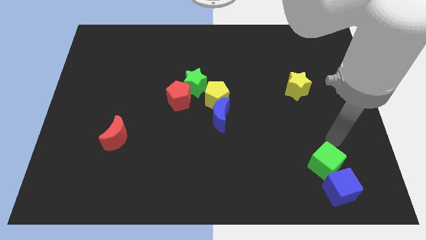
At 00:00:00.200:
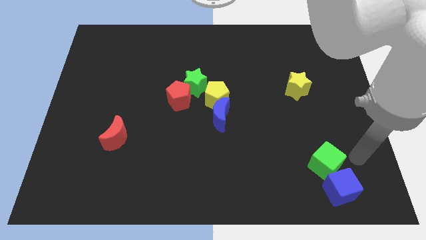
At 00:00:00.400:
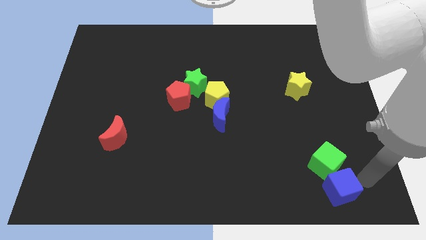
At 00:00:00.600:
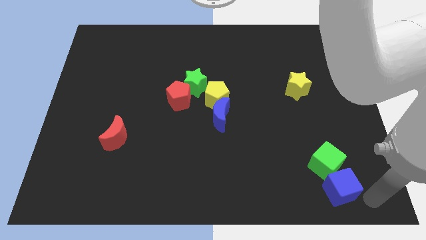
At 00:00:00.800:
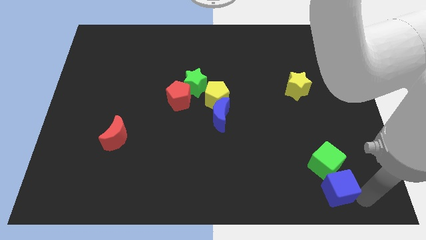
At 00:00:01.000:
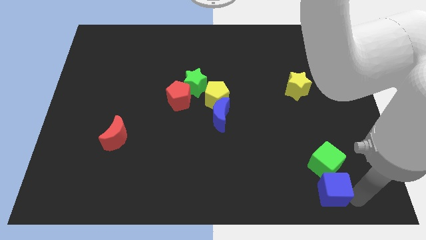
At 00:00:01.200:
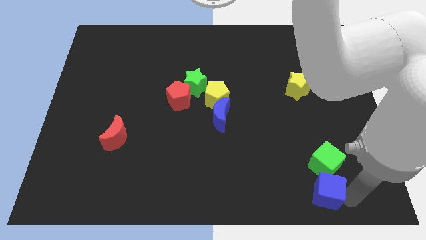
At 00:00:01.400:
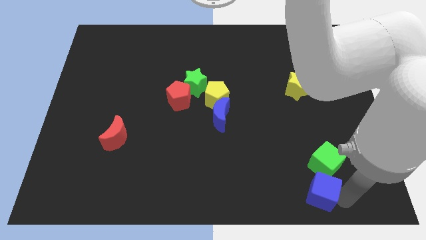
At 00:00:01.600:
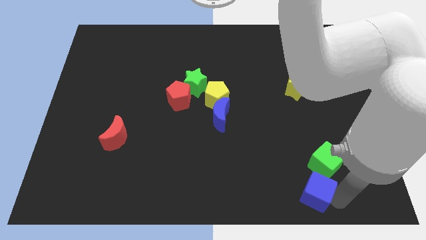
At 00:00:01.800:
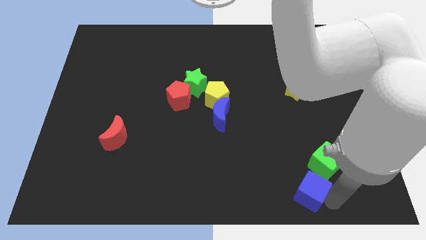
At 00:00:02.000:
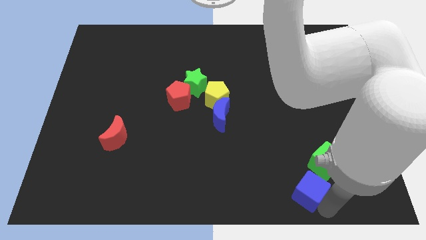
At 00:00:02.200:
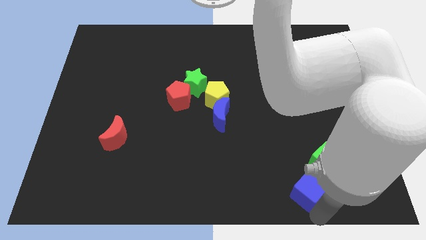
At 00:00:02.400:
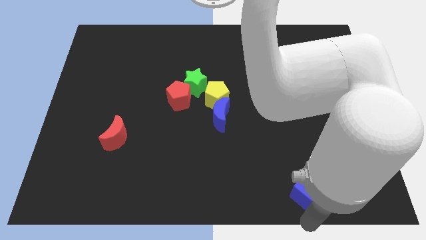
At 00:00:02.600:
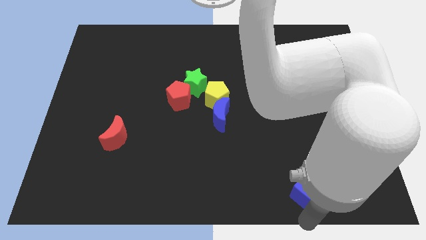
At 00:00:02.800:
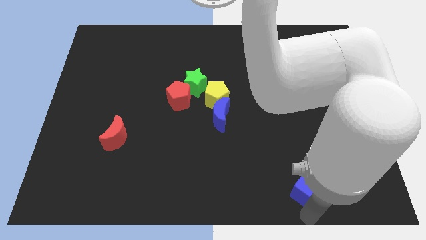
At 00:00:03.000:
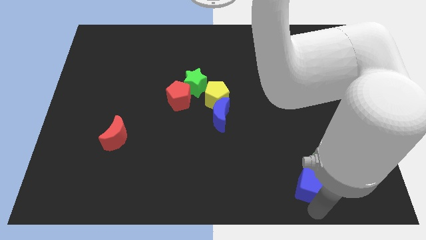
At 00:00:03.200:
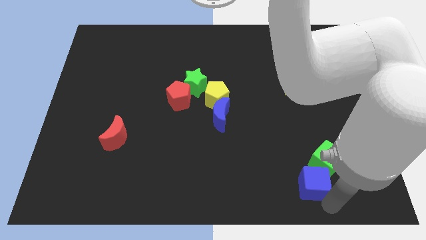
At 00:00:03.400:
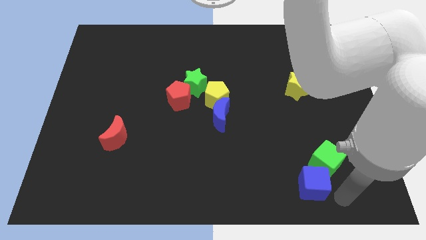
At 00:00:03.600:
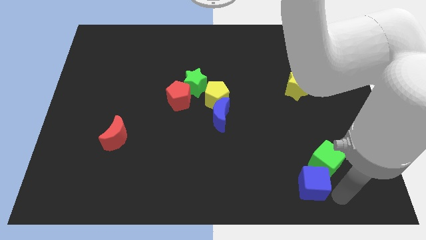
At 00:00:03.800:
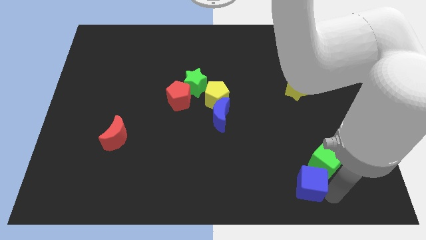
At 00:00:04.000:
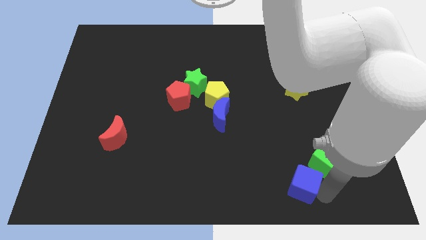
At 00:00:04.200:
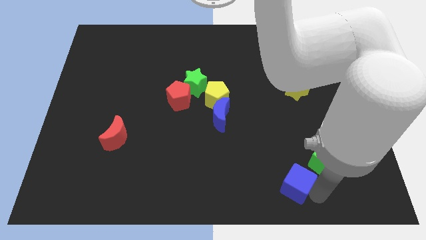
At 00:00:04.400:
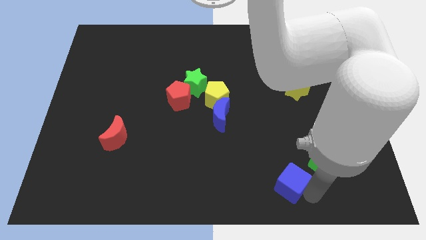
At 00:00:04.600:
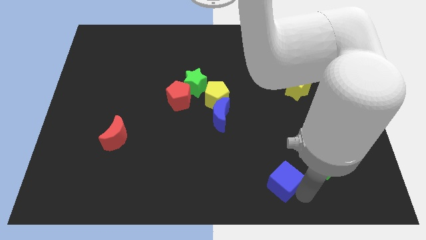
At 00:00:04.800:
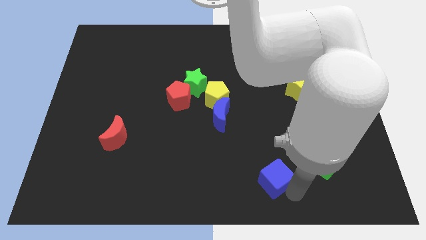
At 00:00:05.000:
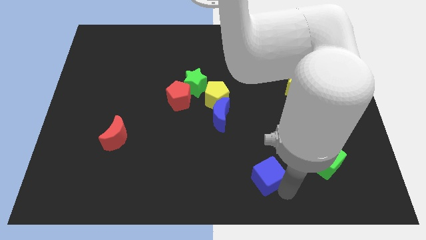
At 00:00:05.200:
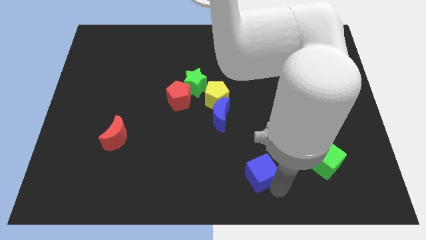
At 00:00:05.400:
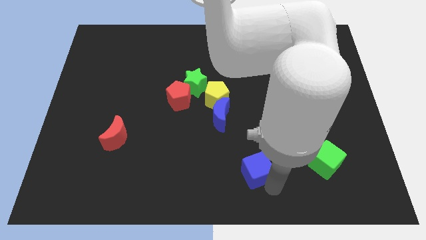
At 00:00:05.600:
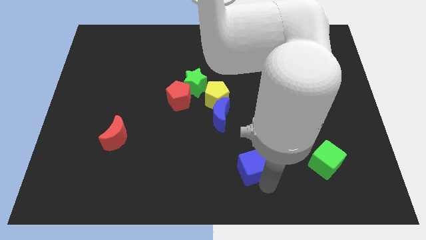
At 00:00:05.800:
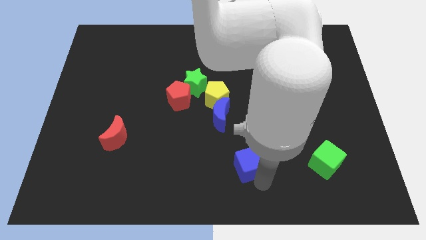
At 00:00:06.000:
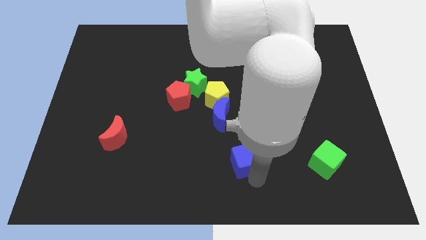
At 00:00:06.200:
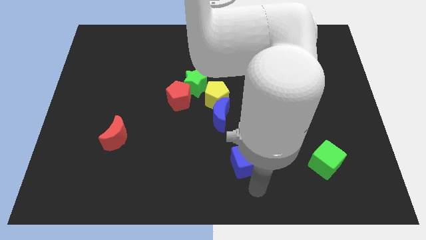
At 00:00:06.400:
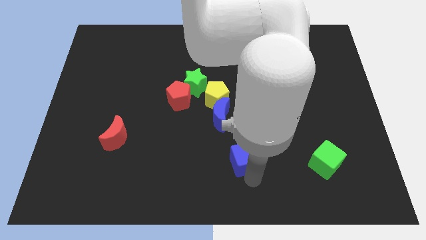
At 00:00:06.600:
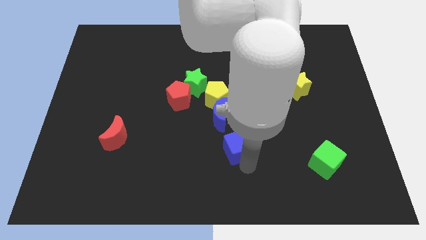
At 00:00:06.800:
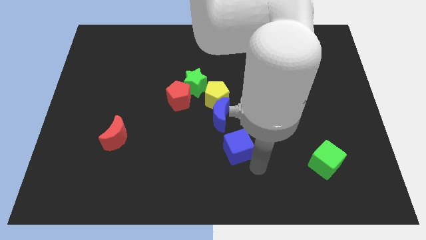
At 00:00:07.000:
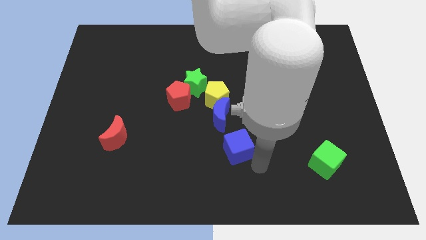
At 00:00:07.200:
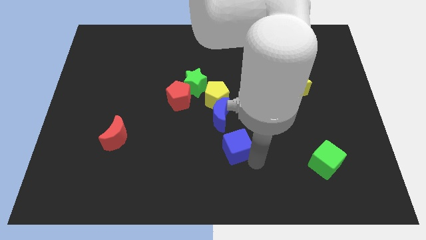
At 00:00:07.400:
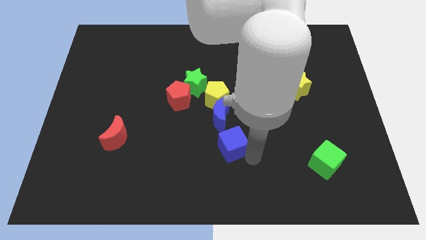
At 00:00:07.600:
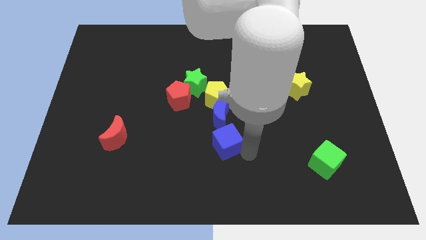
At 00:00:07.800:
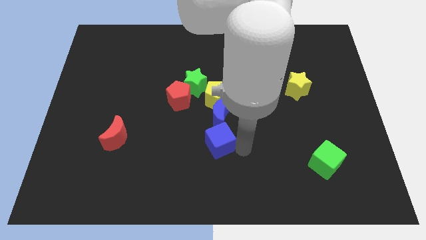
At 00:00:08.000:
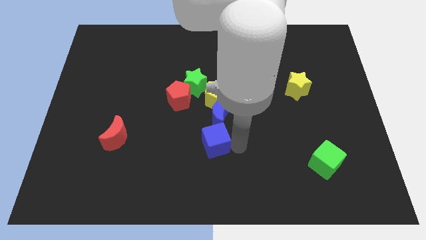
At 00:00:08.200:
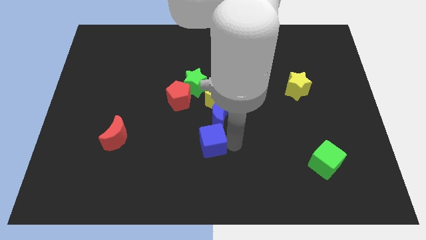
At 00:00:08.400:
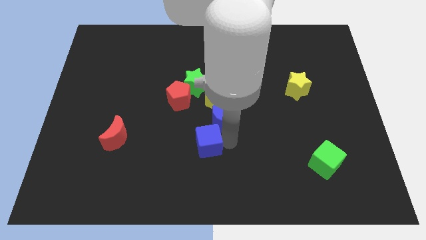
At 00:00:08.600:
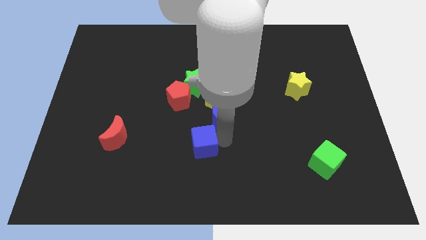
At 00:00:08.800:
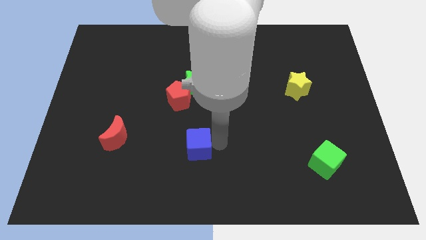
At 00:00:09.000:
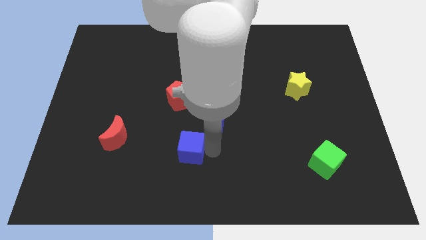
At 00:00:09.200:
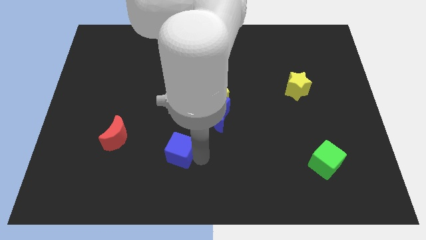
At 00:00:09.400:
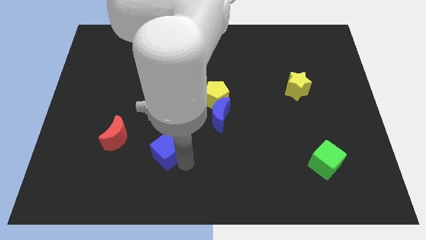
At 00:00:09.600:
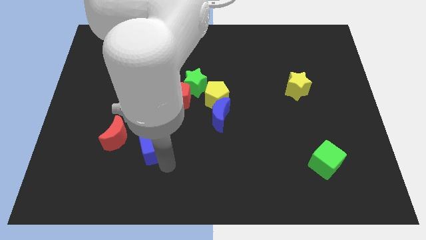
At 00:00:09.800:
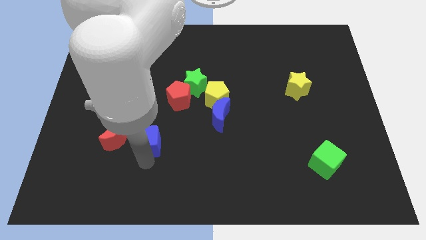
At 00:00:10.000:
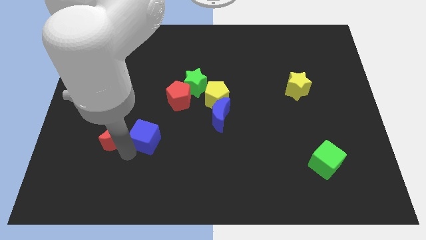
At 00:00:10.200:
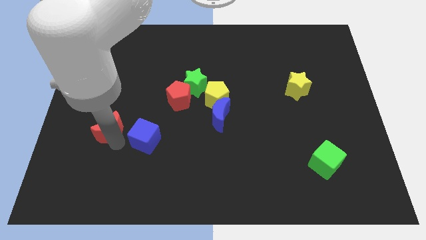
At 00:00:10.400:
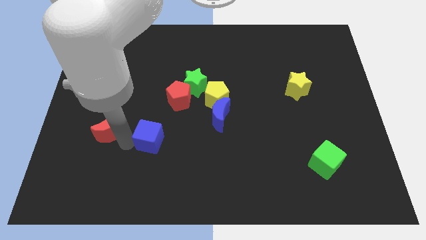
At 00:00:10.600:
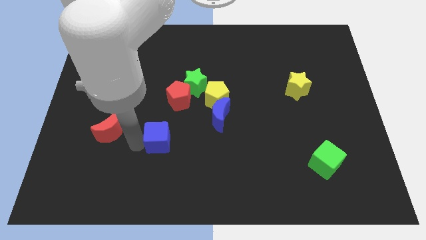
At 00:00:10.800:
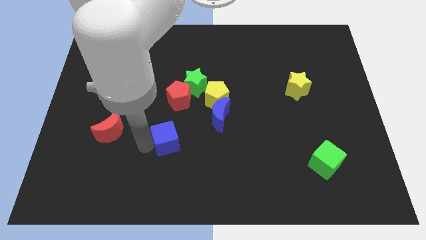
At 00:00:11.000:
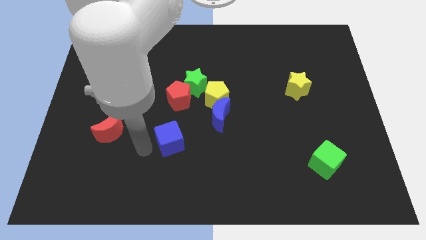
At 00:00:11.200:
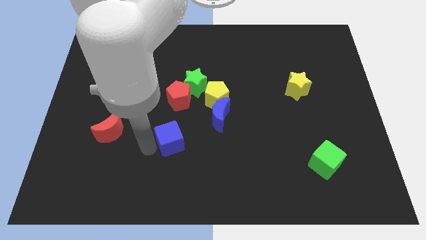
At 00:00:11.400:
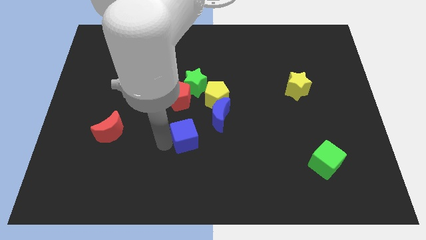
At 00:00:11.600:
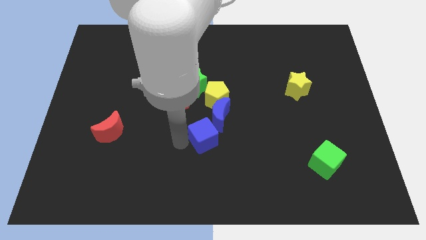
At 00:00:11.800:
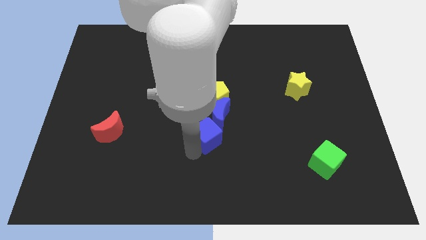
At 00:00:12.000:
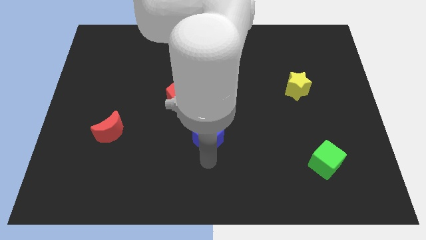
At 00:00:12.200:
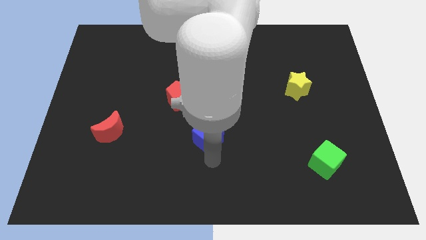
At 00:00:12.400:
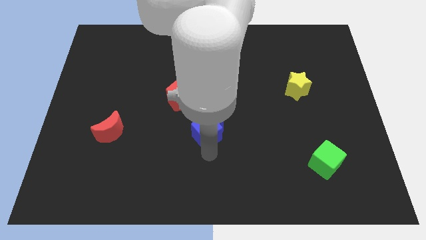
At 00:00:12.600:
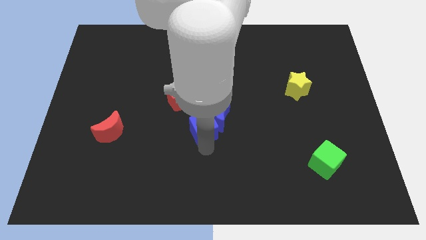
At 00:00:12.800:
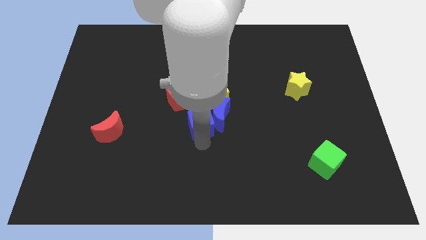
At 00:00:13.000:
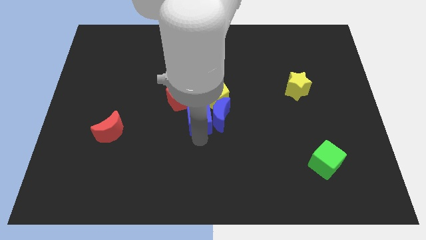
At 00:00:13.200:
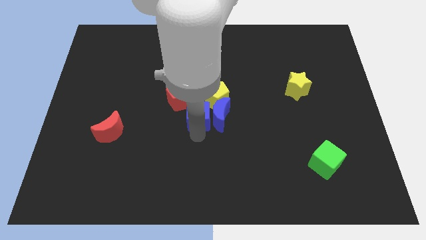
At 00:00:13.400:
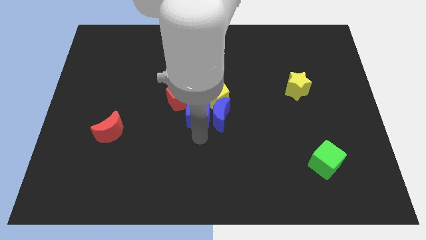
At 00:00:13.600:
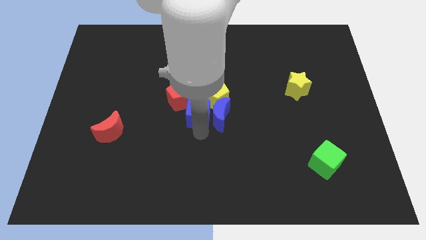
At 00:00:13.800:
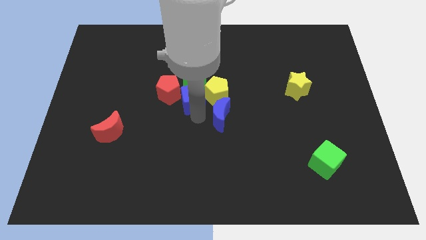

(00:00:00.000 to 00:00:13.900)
move the blue cube close to the green star
